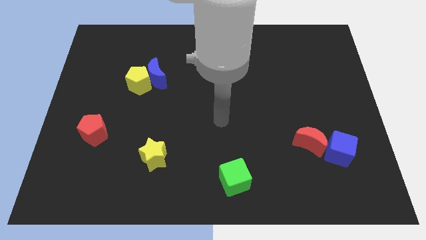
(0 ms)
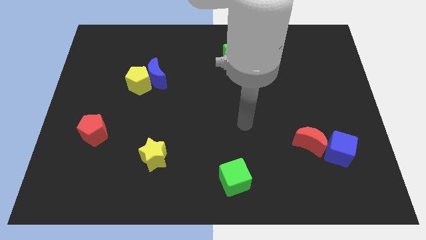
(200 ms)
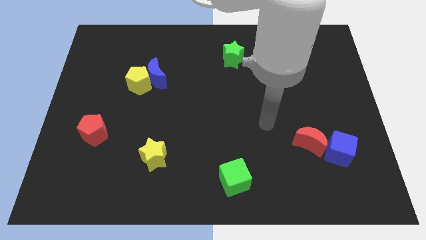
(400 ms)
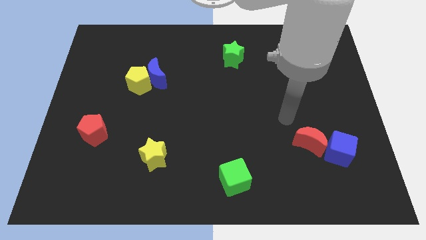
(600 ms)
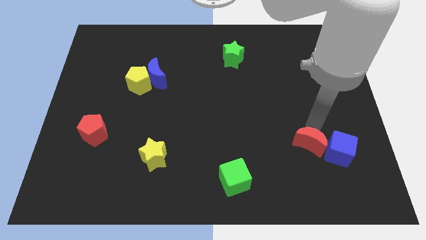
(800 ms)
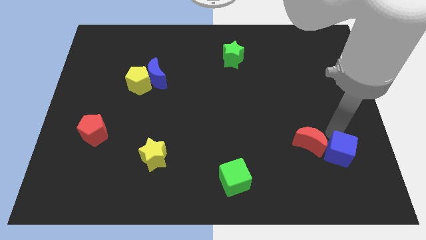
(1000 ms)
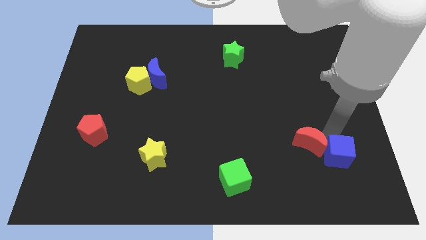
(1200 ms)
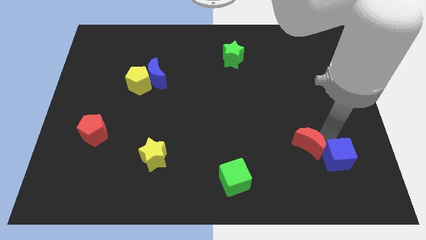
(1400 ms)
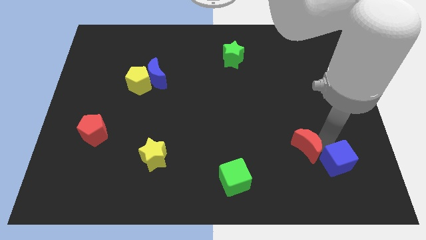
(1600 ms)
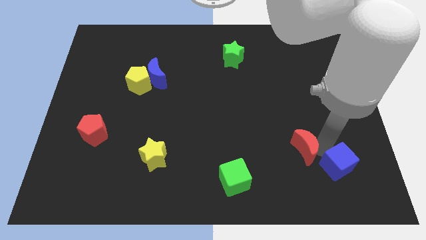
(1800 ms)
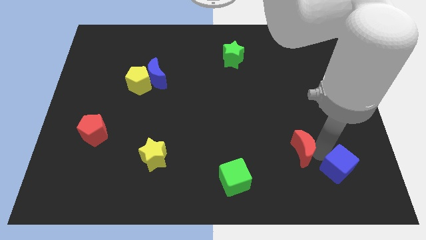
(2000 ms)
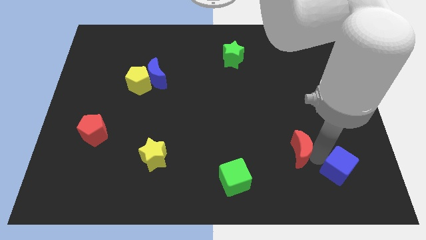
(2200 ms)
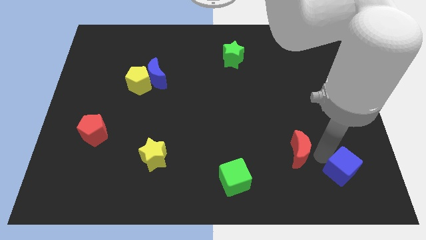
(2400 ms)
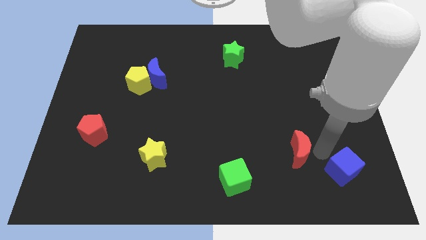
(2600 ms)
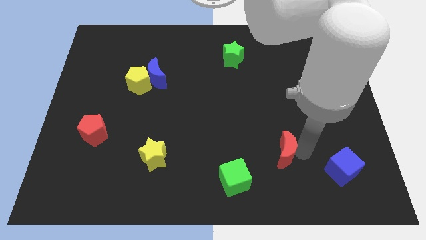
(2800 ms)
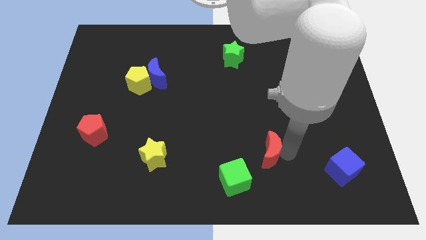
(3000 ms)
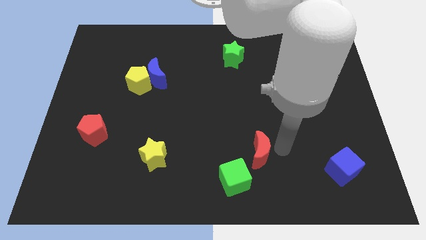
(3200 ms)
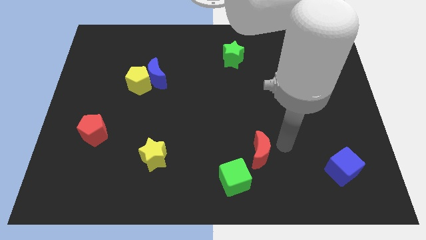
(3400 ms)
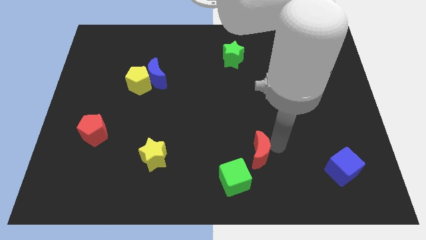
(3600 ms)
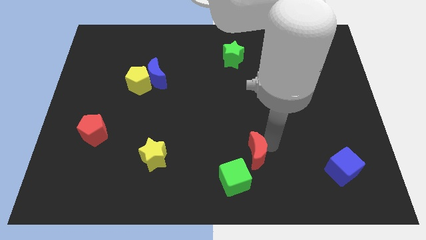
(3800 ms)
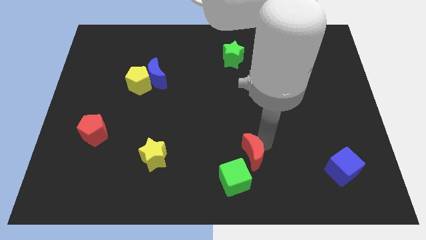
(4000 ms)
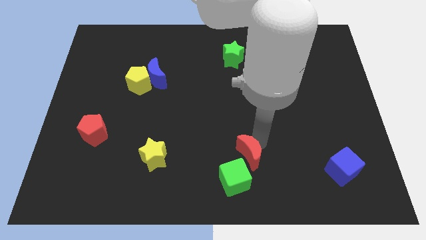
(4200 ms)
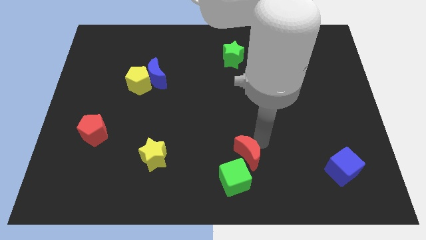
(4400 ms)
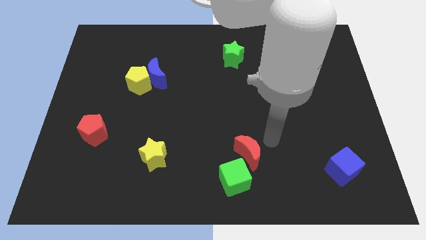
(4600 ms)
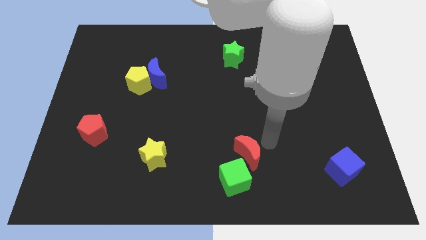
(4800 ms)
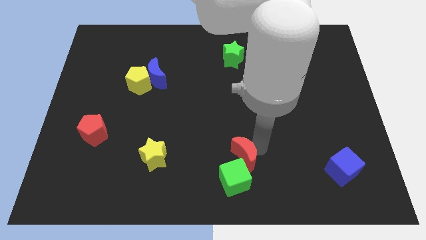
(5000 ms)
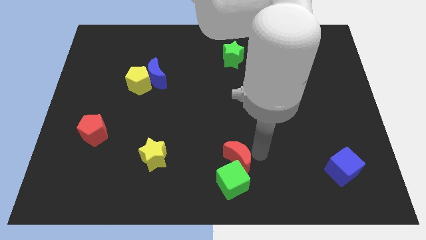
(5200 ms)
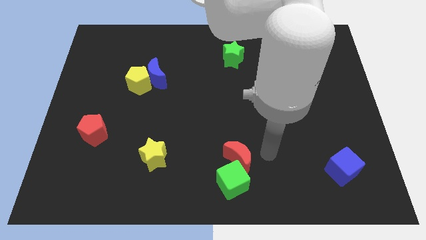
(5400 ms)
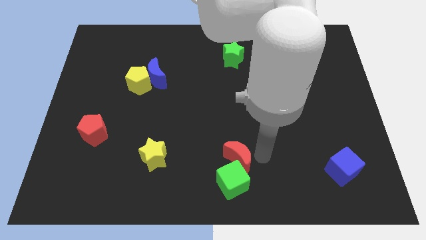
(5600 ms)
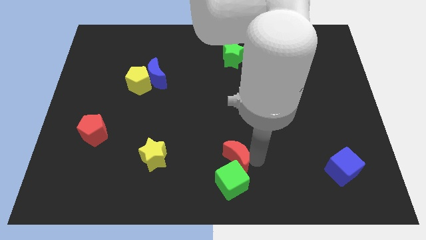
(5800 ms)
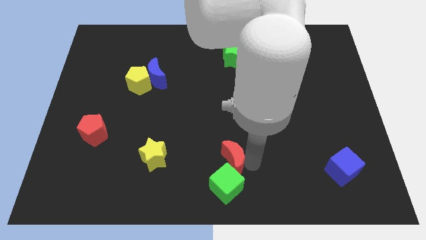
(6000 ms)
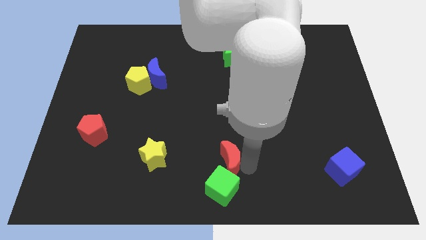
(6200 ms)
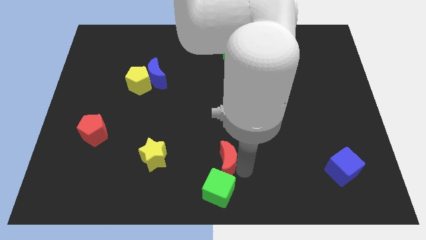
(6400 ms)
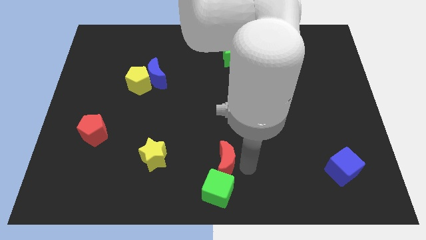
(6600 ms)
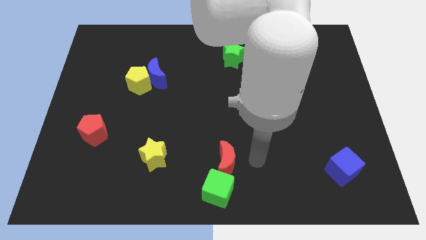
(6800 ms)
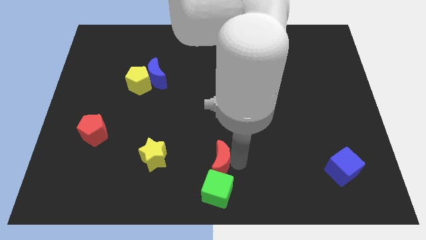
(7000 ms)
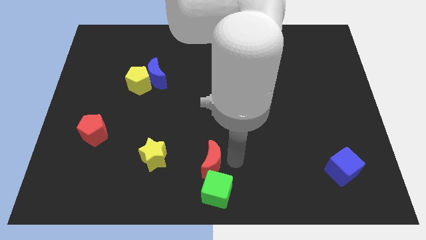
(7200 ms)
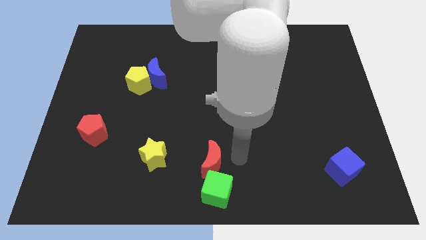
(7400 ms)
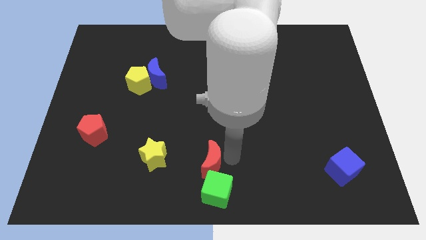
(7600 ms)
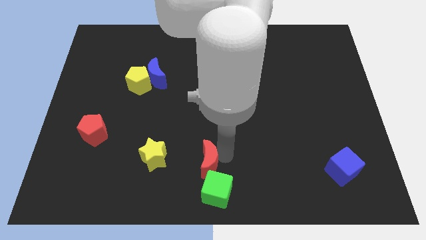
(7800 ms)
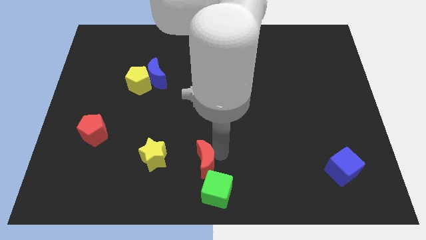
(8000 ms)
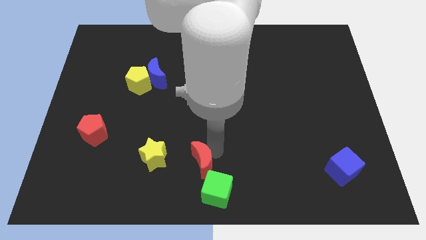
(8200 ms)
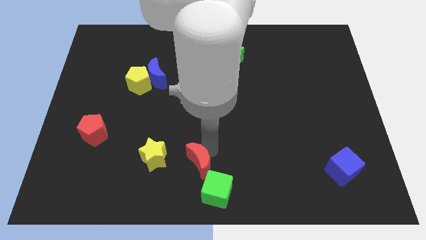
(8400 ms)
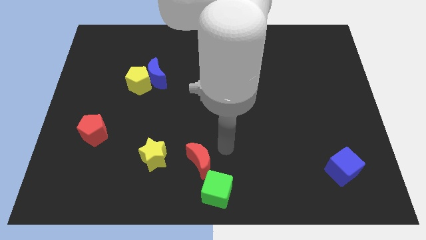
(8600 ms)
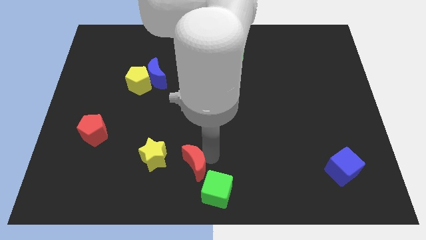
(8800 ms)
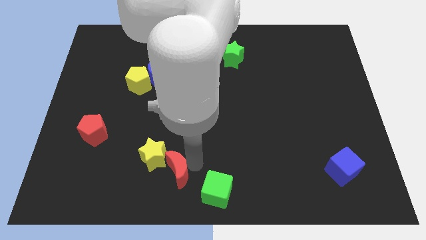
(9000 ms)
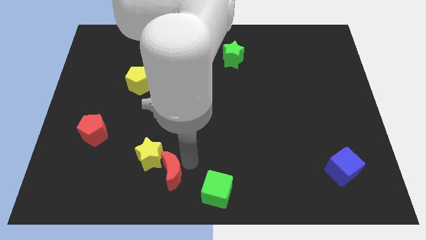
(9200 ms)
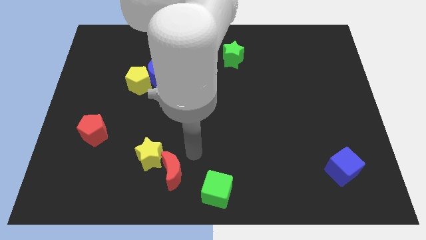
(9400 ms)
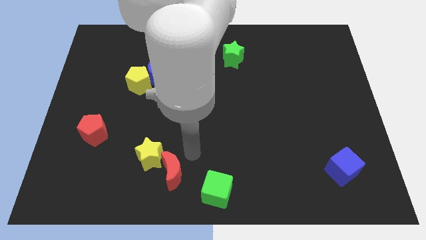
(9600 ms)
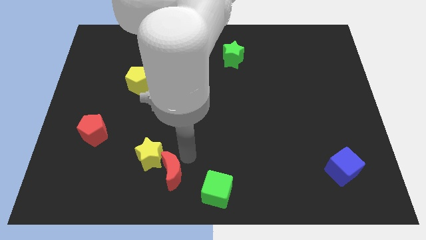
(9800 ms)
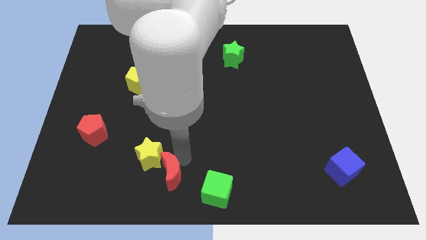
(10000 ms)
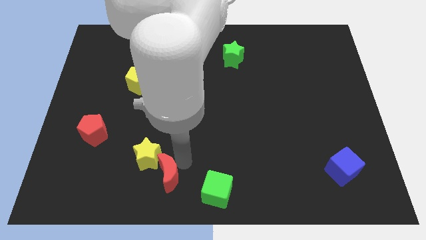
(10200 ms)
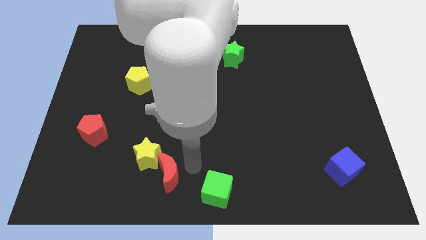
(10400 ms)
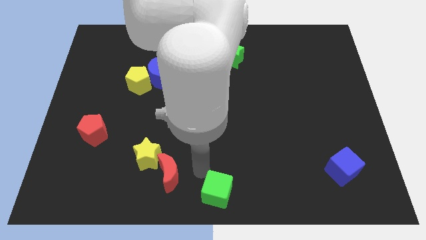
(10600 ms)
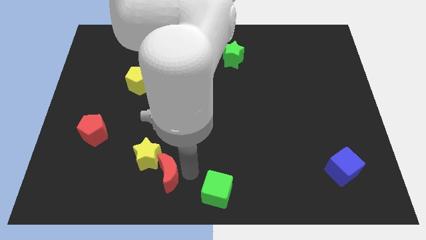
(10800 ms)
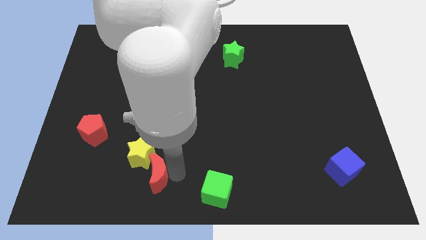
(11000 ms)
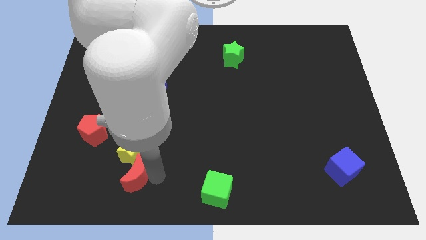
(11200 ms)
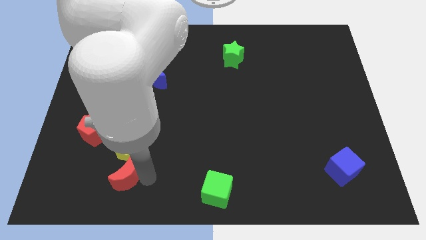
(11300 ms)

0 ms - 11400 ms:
move the red moon to the bottom left of the yellow star

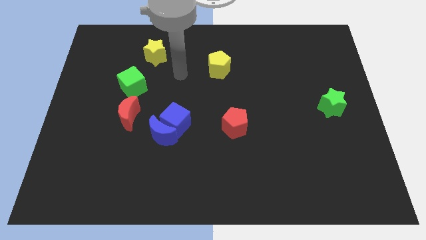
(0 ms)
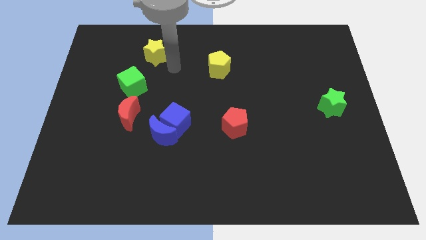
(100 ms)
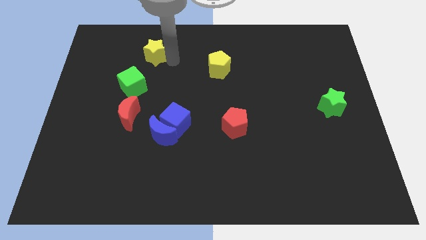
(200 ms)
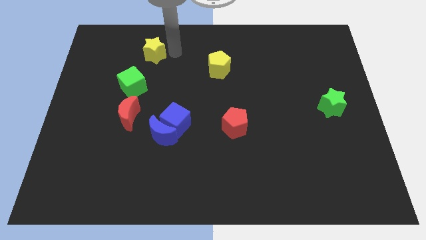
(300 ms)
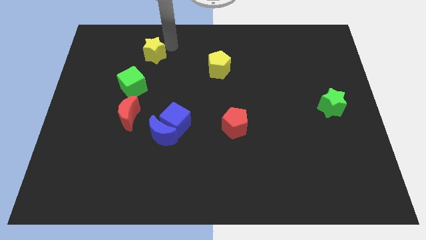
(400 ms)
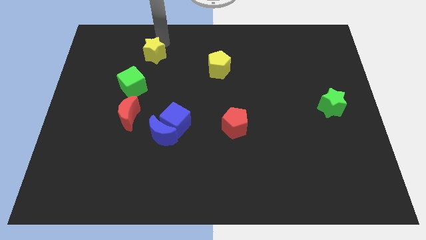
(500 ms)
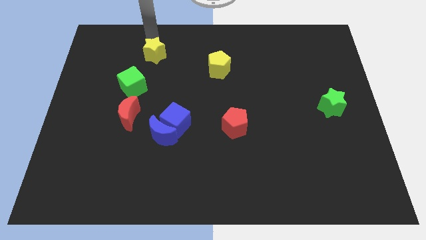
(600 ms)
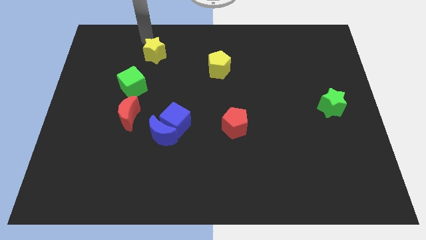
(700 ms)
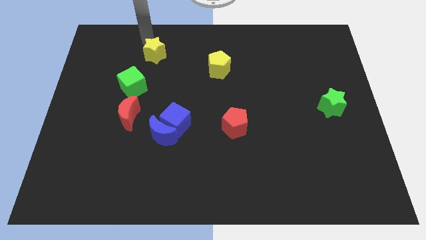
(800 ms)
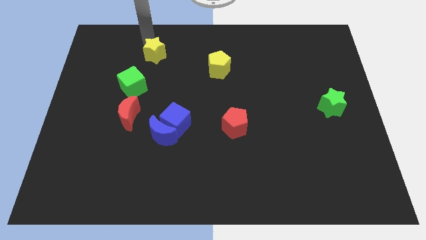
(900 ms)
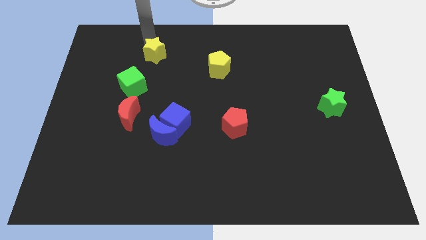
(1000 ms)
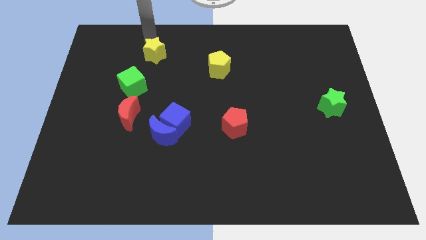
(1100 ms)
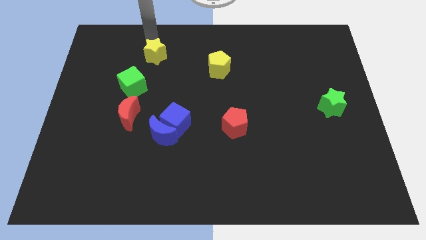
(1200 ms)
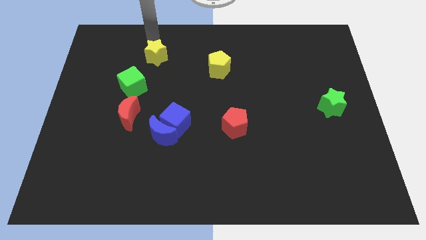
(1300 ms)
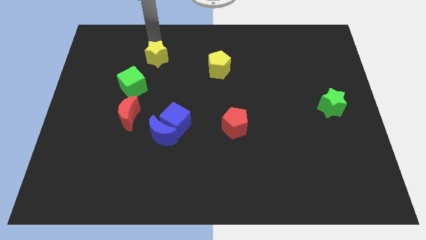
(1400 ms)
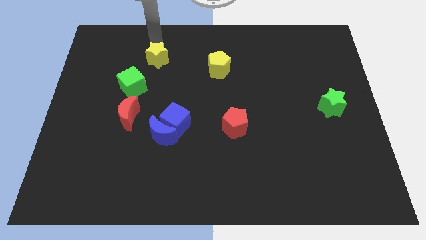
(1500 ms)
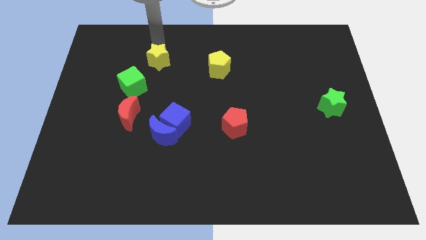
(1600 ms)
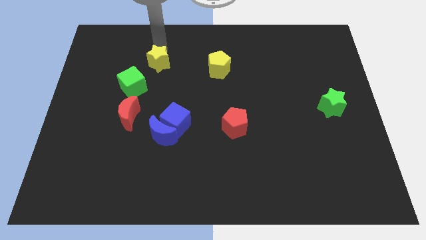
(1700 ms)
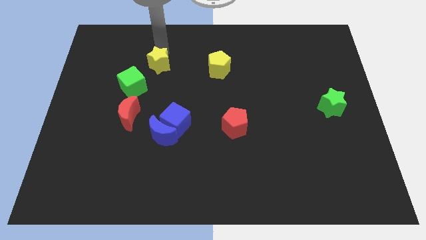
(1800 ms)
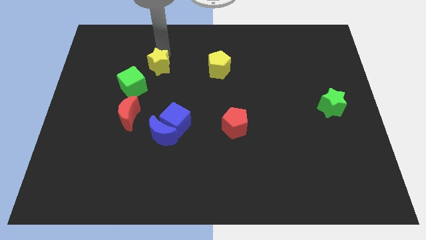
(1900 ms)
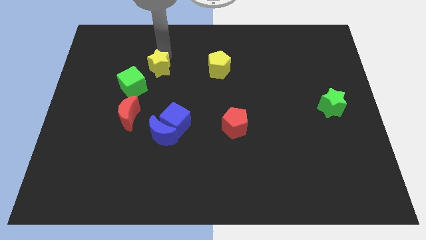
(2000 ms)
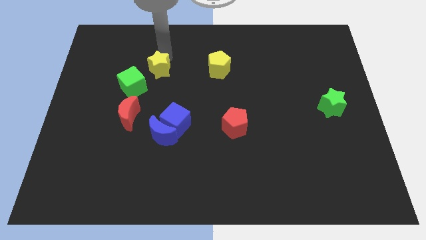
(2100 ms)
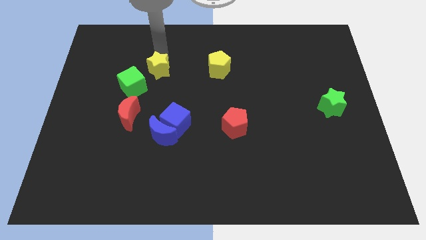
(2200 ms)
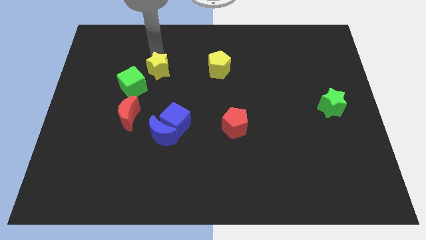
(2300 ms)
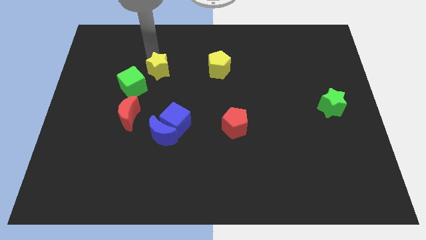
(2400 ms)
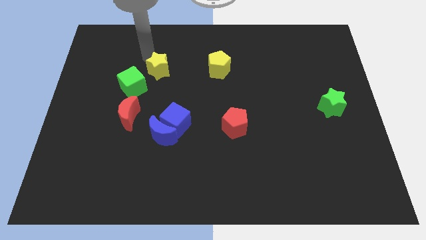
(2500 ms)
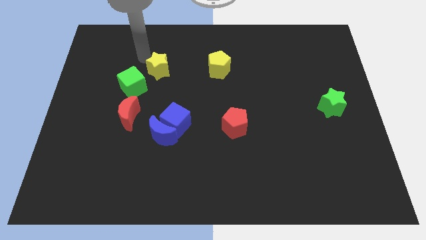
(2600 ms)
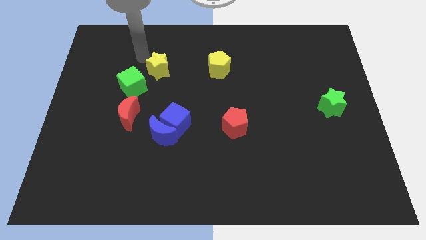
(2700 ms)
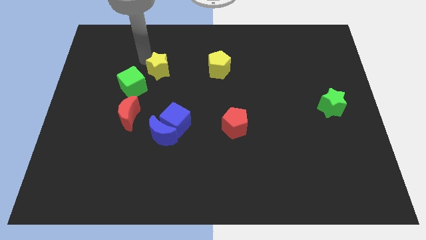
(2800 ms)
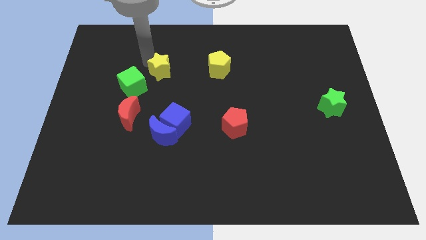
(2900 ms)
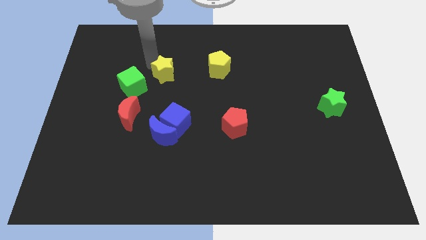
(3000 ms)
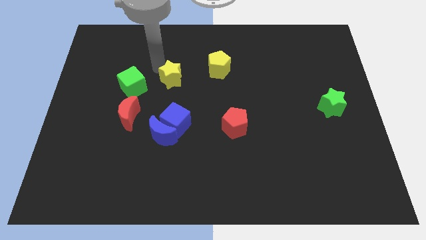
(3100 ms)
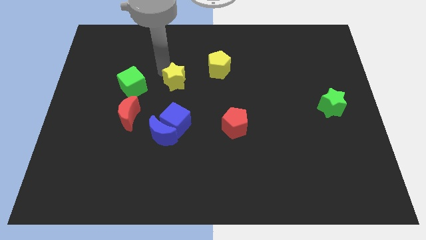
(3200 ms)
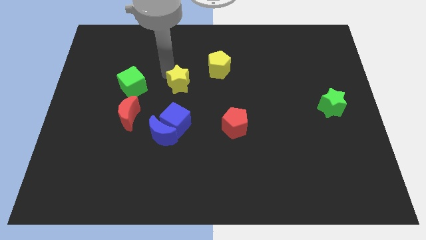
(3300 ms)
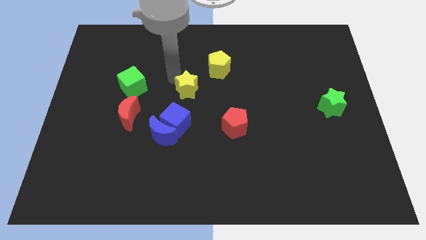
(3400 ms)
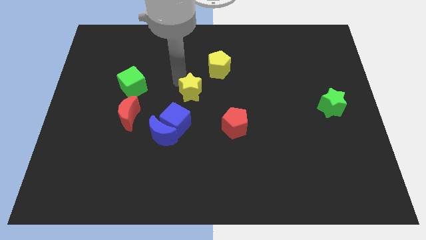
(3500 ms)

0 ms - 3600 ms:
push the yellow star to the top right side of the blue cube
